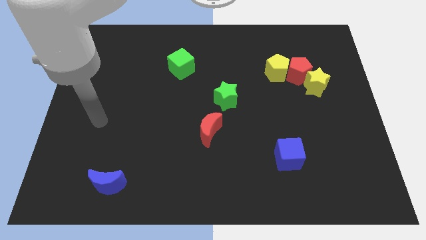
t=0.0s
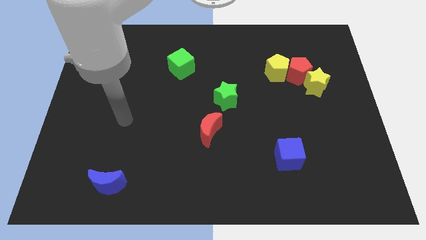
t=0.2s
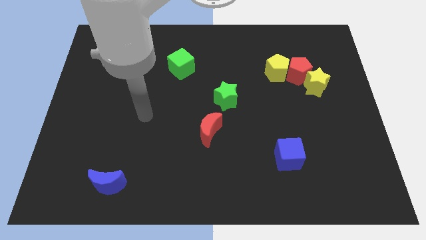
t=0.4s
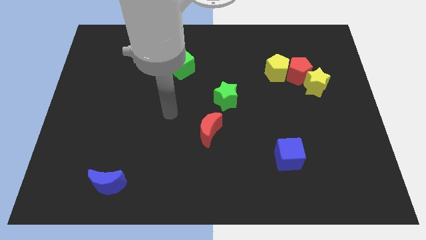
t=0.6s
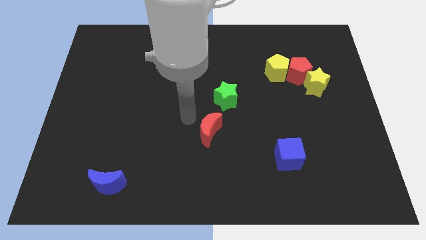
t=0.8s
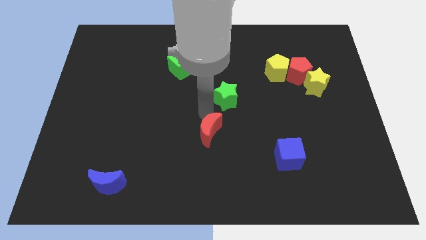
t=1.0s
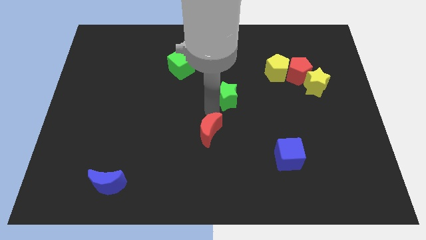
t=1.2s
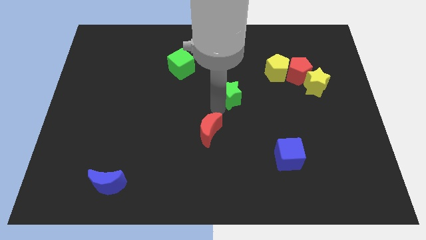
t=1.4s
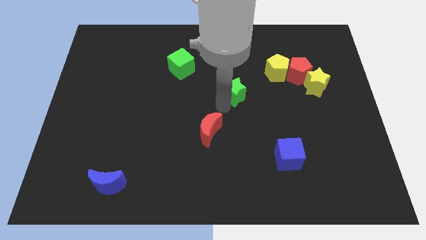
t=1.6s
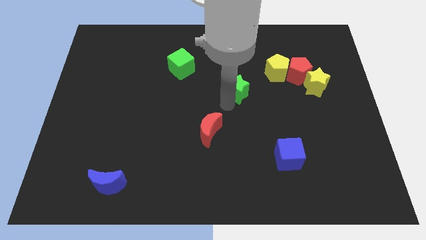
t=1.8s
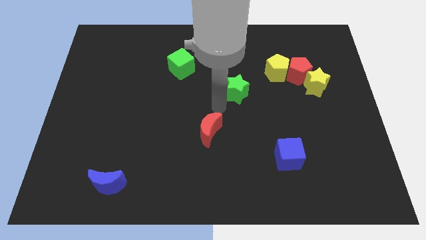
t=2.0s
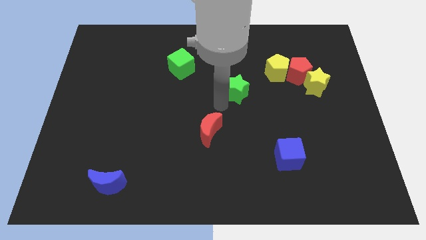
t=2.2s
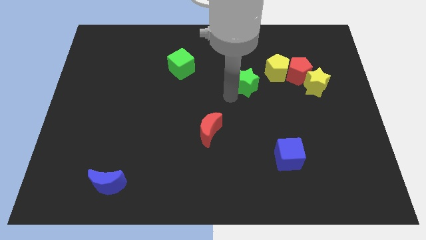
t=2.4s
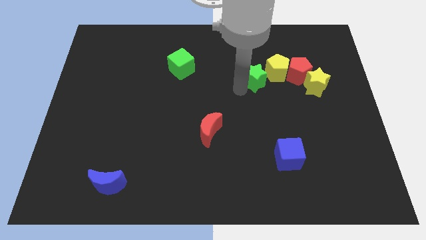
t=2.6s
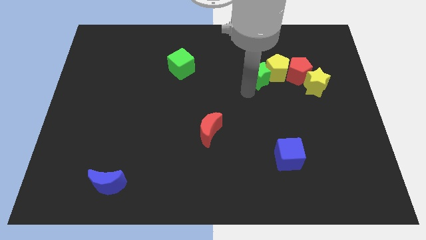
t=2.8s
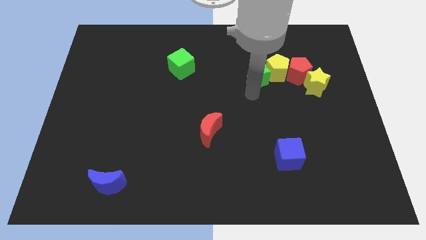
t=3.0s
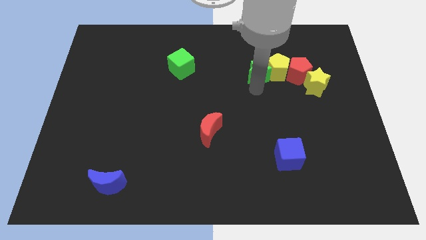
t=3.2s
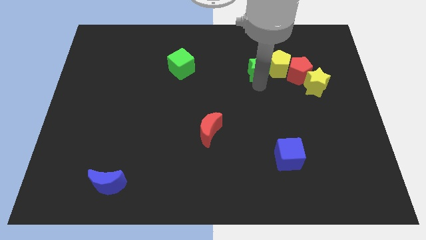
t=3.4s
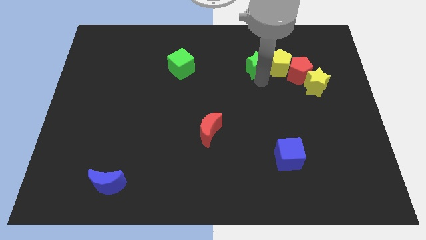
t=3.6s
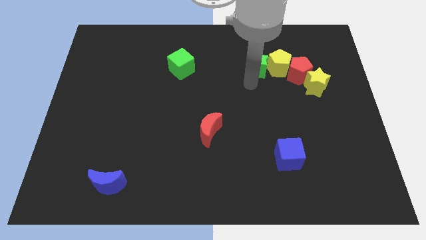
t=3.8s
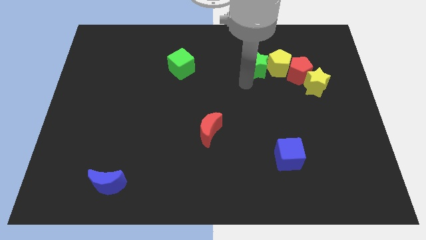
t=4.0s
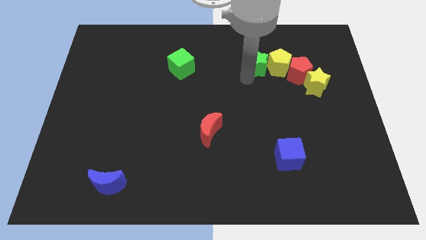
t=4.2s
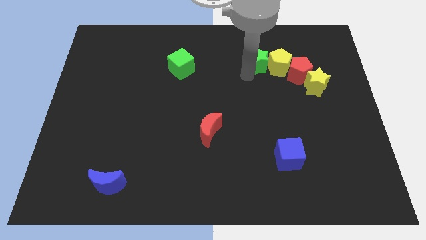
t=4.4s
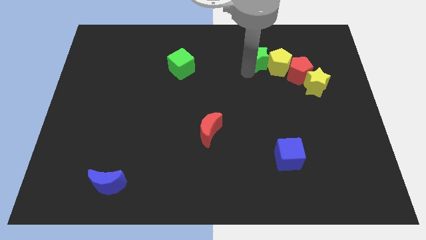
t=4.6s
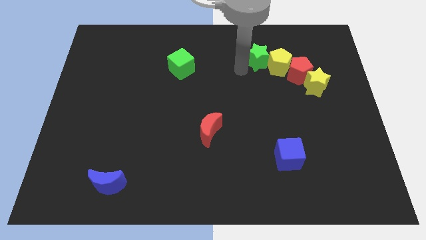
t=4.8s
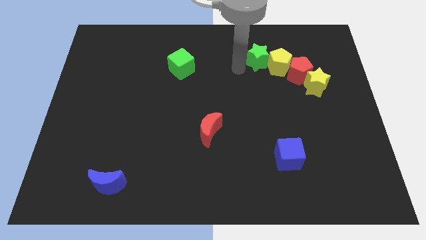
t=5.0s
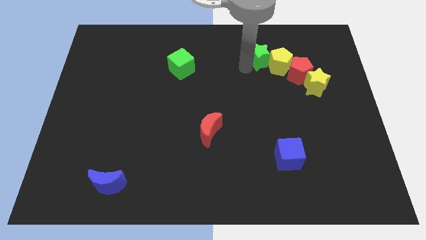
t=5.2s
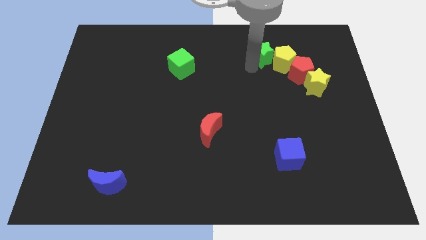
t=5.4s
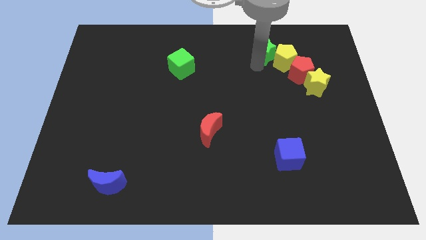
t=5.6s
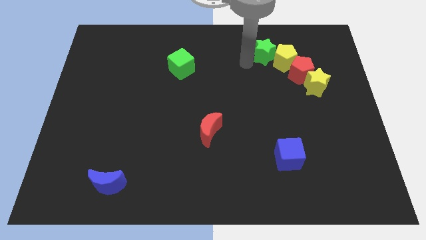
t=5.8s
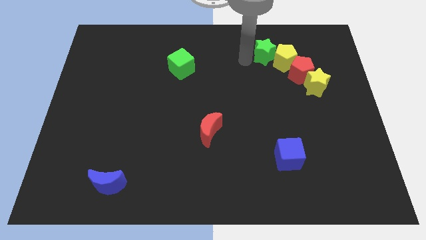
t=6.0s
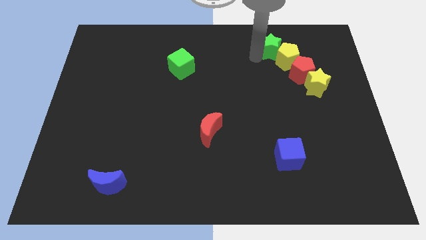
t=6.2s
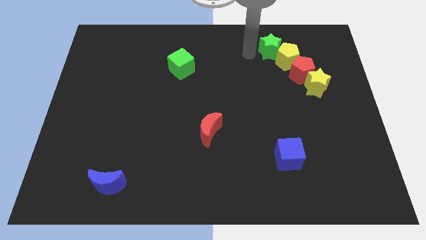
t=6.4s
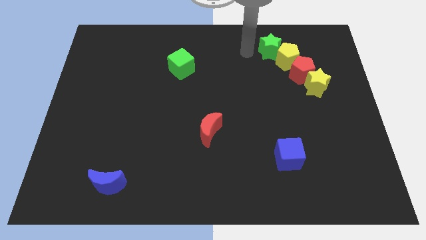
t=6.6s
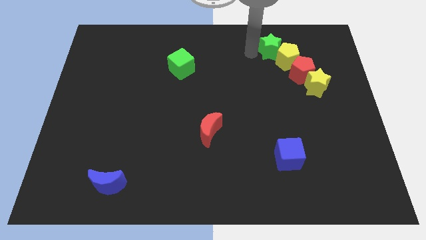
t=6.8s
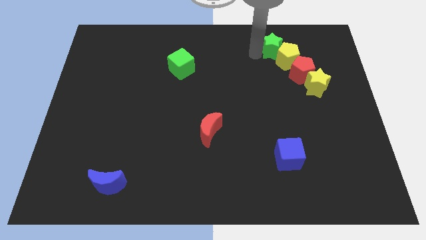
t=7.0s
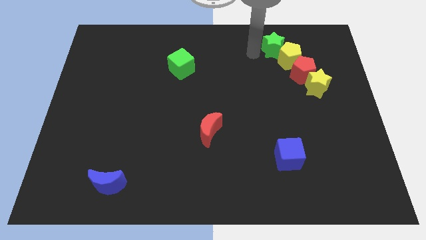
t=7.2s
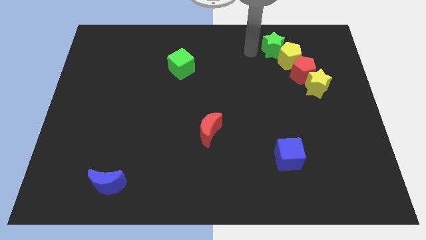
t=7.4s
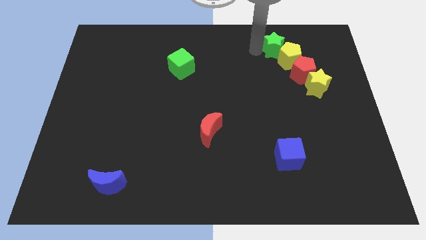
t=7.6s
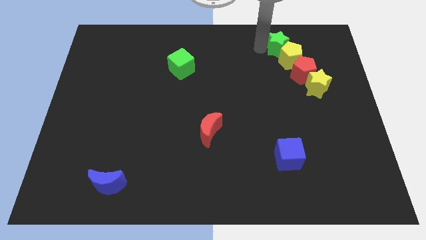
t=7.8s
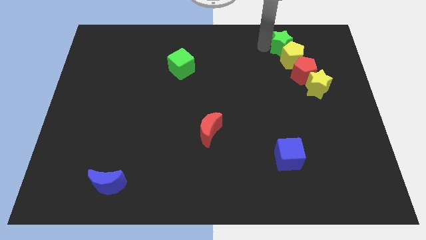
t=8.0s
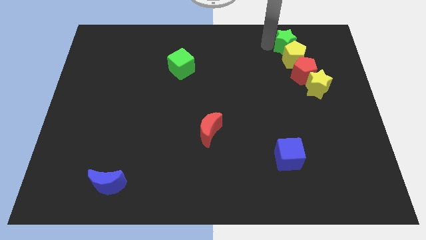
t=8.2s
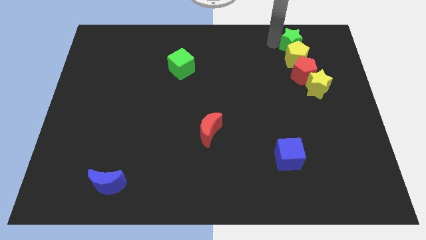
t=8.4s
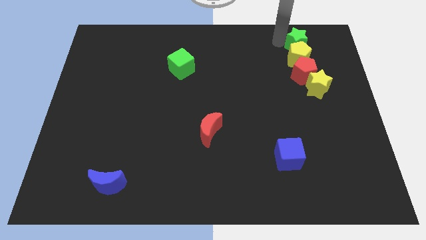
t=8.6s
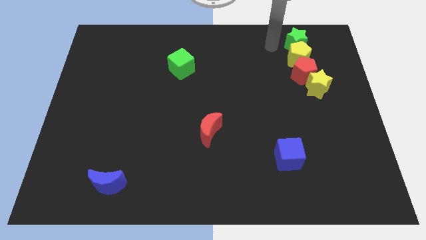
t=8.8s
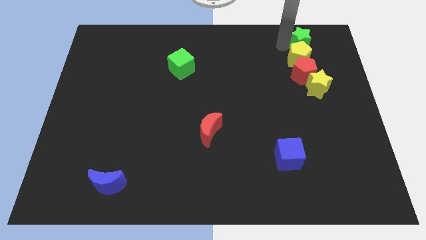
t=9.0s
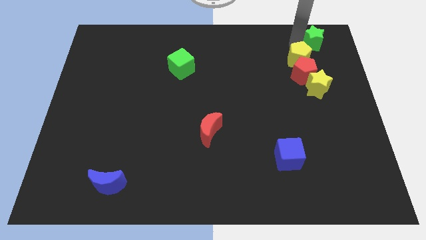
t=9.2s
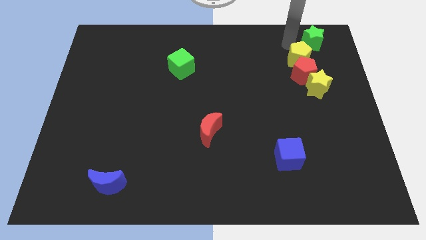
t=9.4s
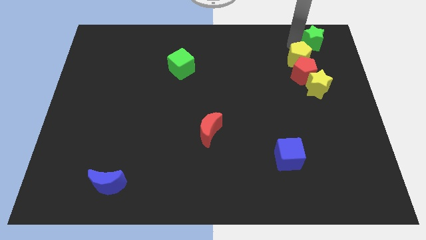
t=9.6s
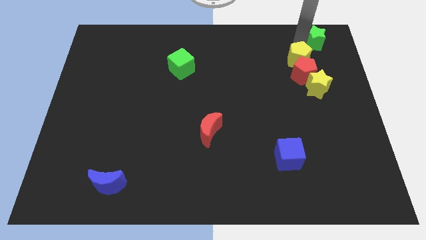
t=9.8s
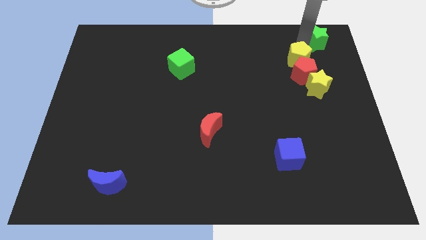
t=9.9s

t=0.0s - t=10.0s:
move the green star to the top right

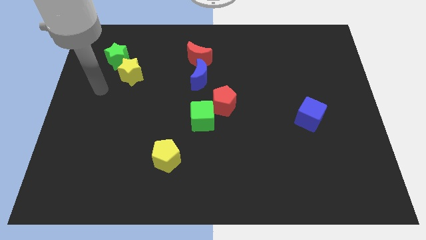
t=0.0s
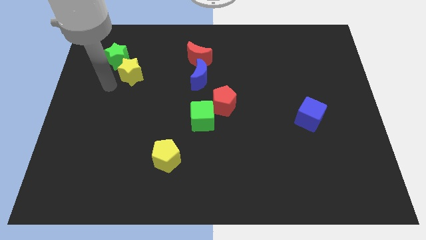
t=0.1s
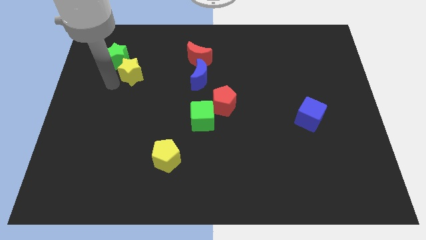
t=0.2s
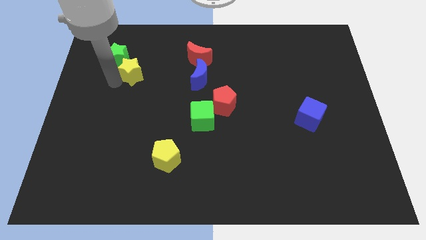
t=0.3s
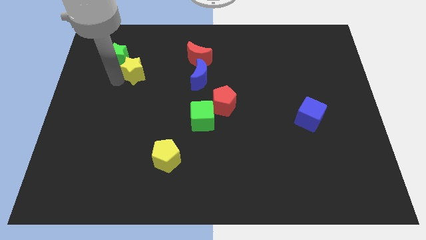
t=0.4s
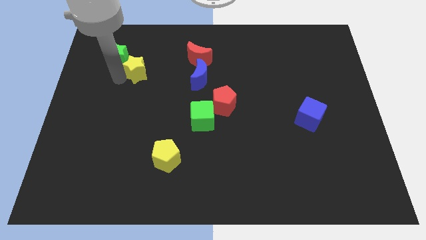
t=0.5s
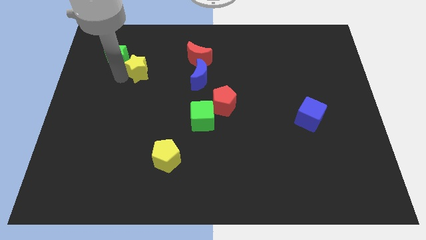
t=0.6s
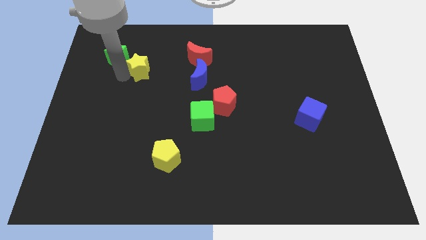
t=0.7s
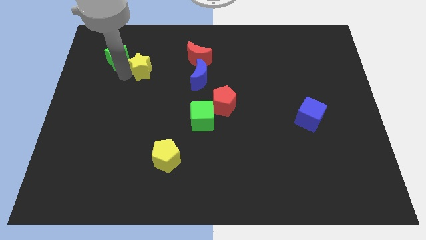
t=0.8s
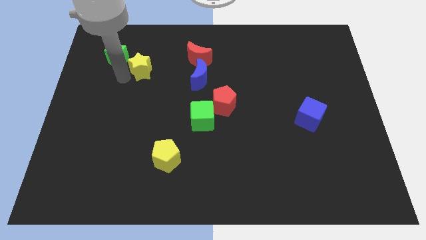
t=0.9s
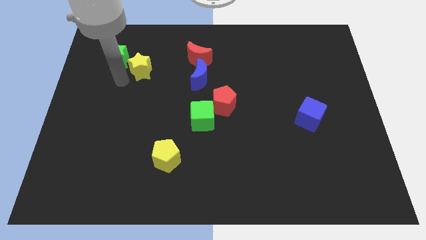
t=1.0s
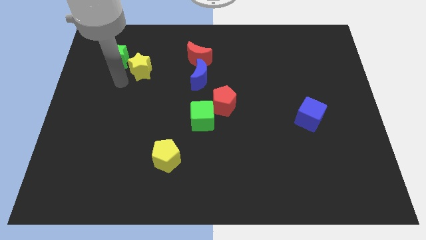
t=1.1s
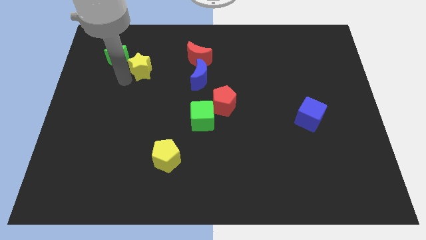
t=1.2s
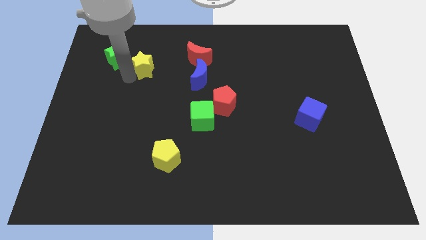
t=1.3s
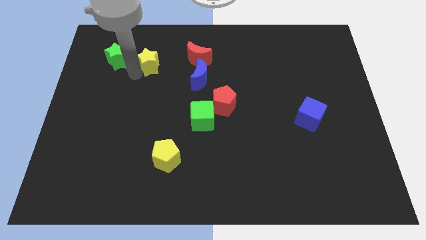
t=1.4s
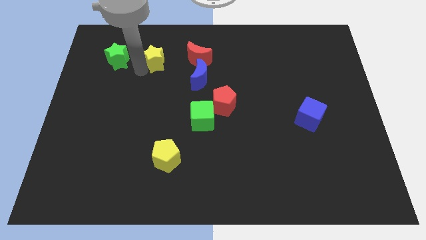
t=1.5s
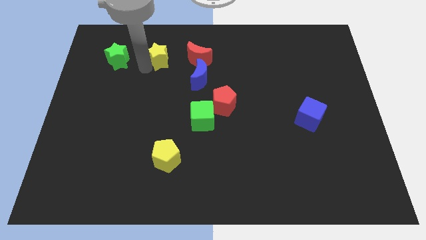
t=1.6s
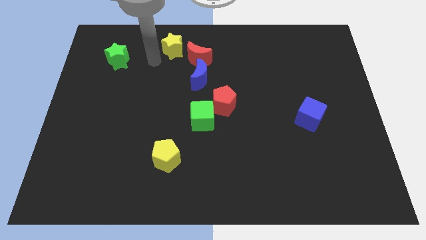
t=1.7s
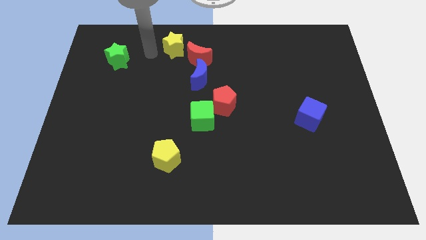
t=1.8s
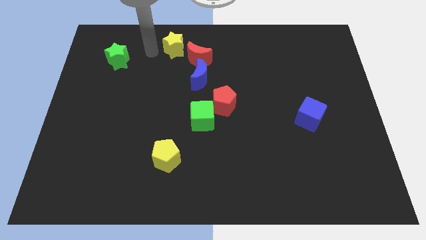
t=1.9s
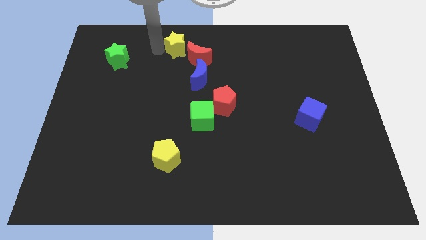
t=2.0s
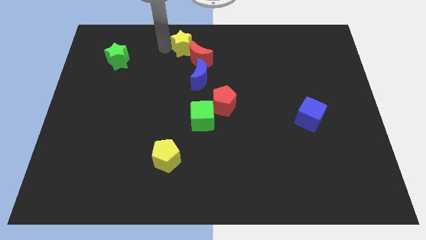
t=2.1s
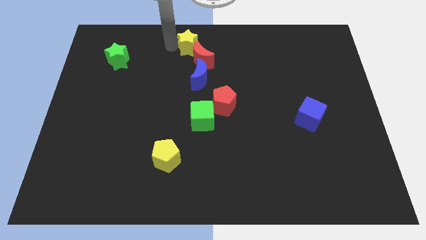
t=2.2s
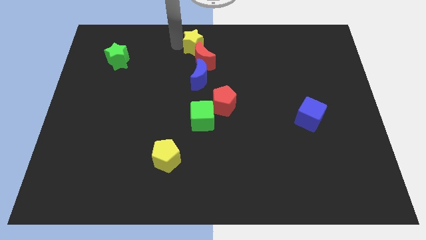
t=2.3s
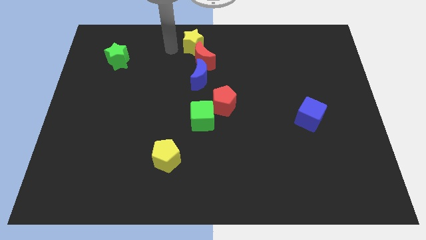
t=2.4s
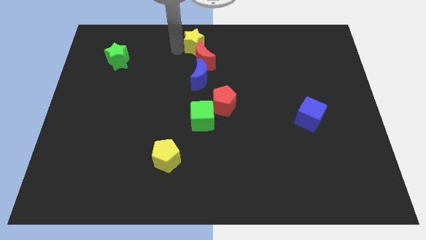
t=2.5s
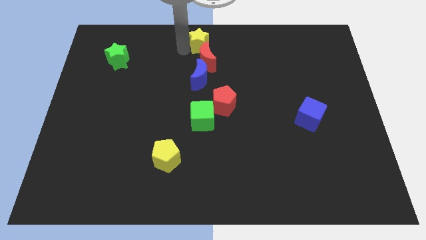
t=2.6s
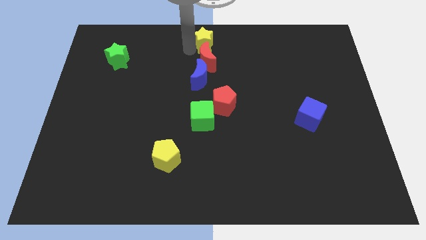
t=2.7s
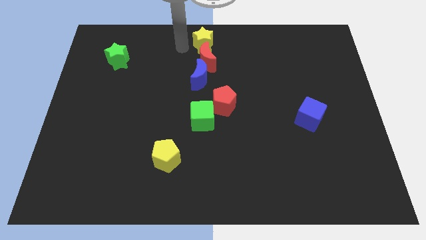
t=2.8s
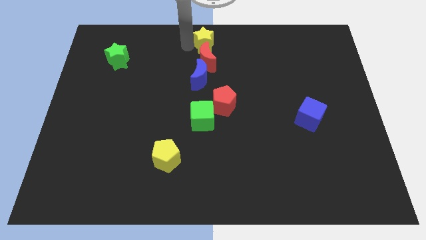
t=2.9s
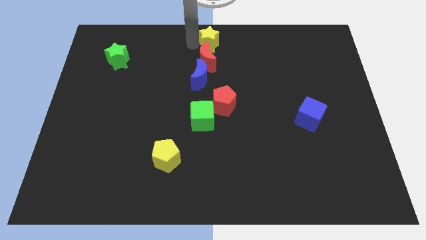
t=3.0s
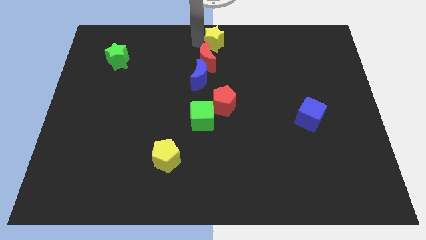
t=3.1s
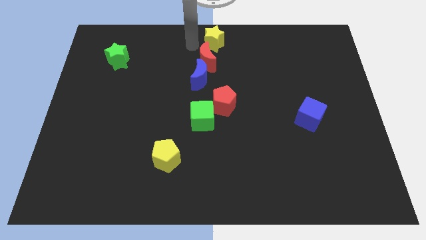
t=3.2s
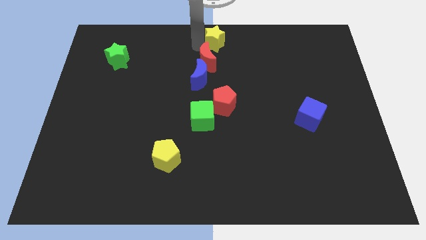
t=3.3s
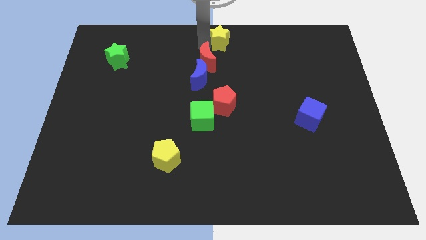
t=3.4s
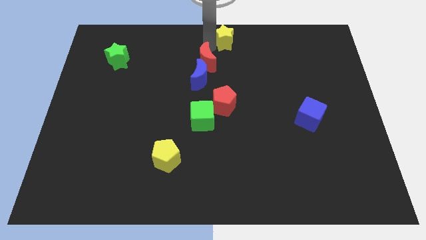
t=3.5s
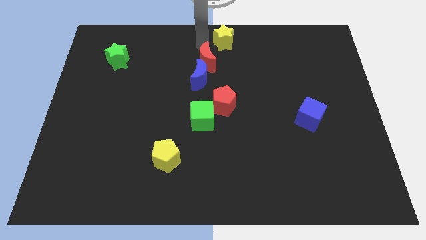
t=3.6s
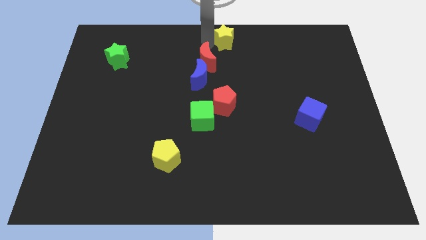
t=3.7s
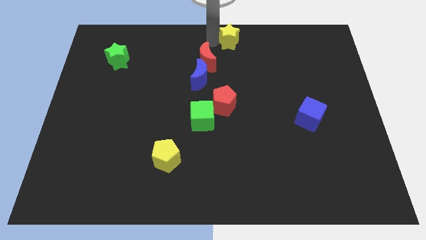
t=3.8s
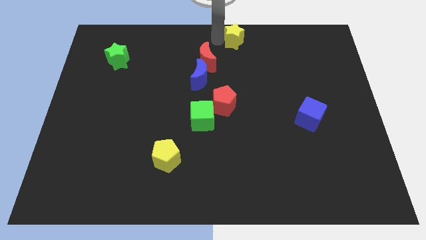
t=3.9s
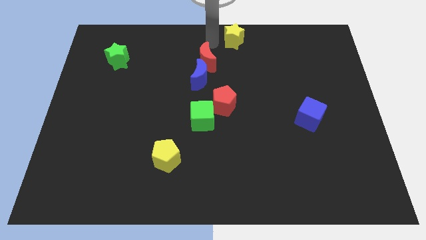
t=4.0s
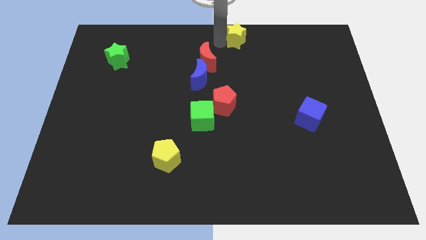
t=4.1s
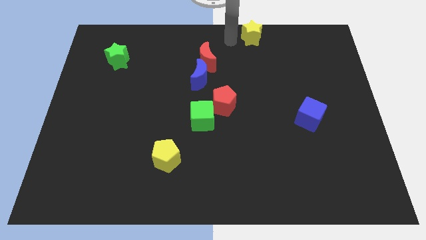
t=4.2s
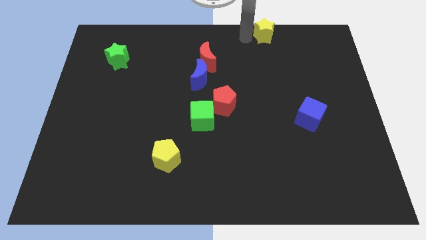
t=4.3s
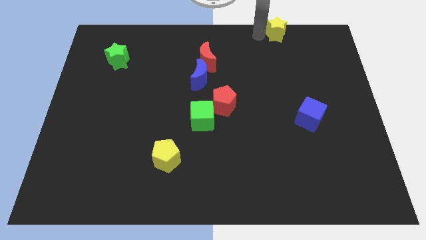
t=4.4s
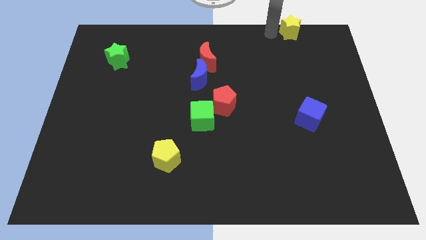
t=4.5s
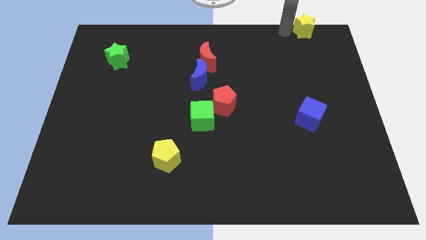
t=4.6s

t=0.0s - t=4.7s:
move the yellow star to the top right of the board
